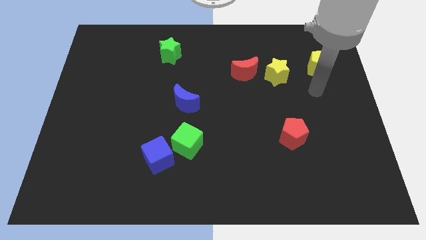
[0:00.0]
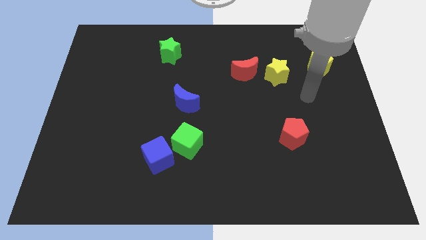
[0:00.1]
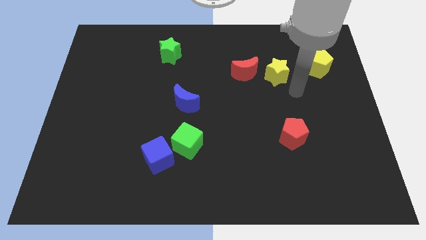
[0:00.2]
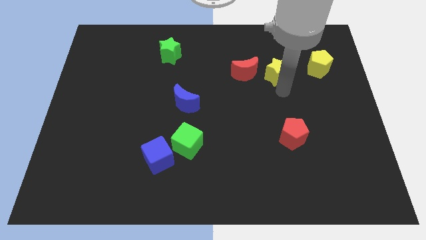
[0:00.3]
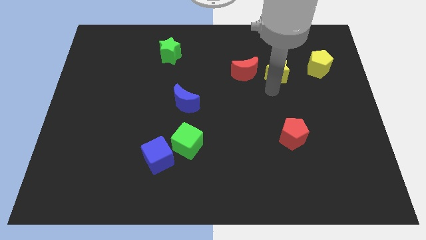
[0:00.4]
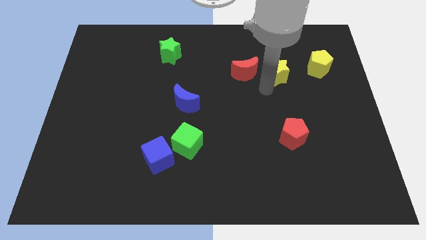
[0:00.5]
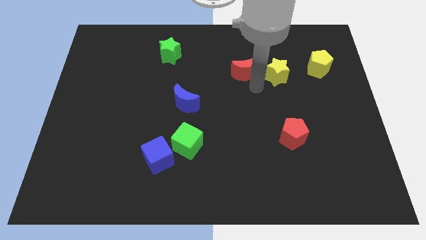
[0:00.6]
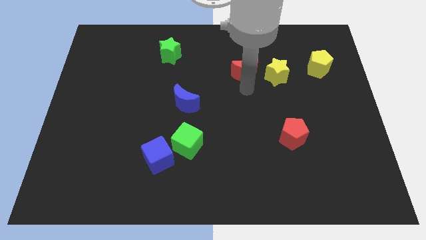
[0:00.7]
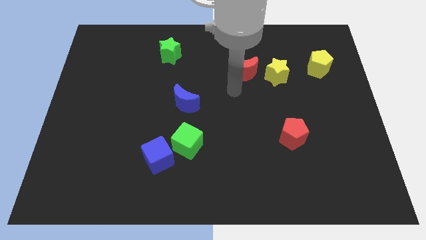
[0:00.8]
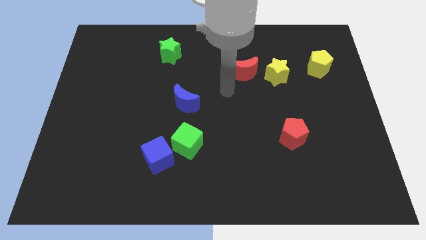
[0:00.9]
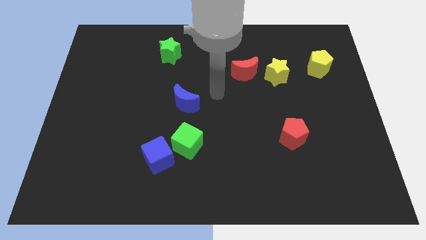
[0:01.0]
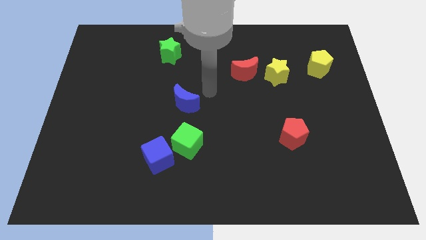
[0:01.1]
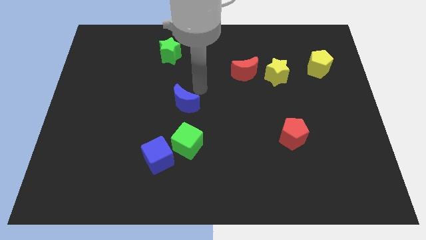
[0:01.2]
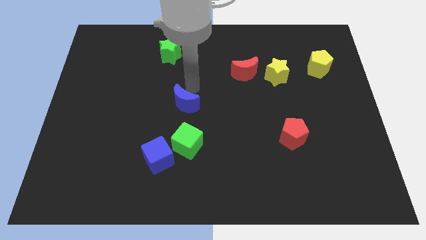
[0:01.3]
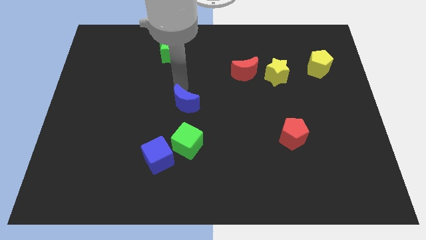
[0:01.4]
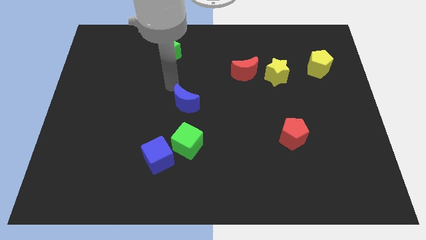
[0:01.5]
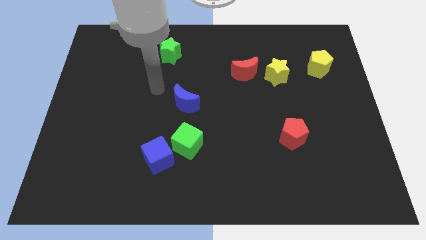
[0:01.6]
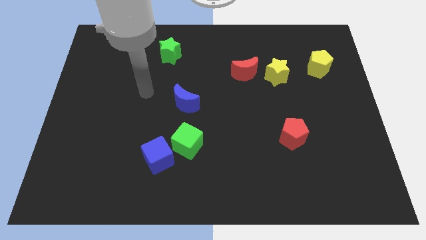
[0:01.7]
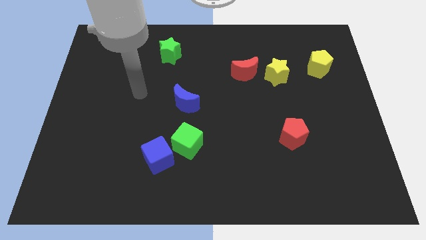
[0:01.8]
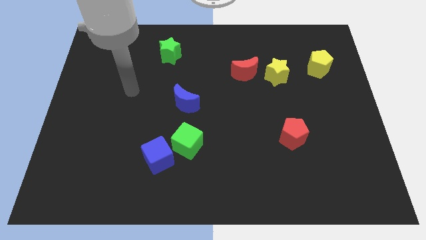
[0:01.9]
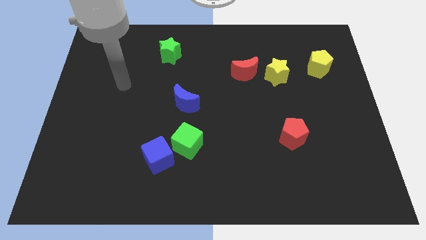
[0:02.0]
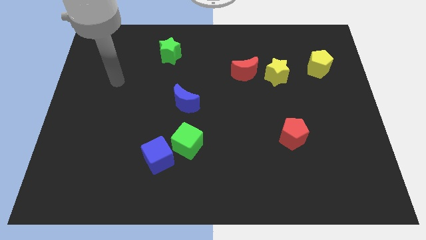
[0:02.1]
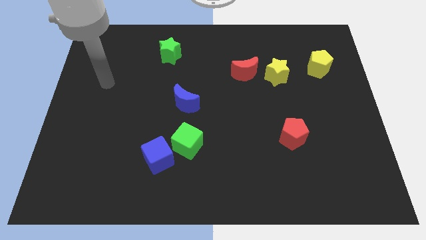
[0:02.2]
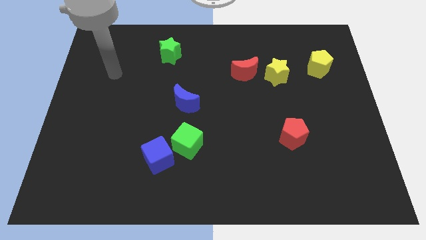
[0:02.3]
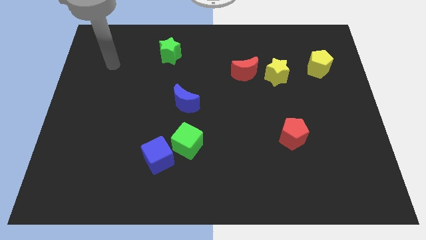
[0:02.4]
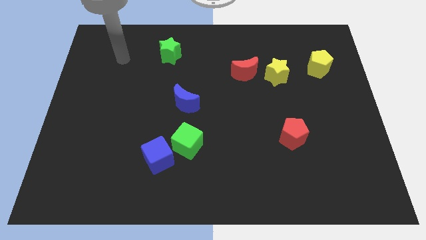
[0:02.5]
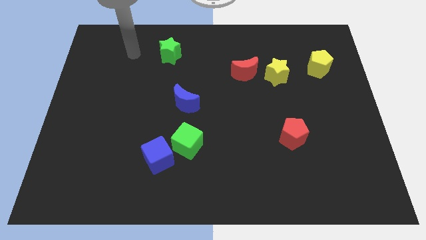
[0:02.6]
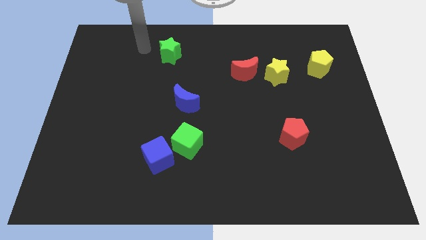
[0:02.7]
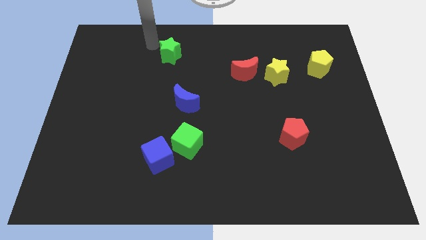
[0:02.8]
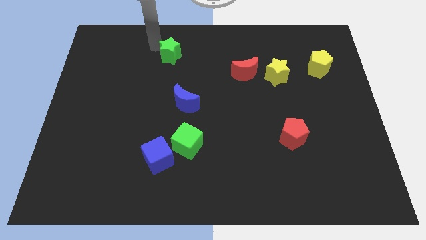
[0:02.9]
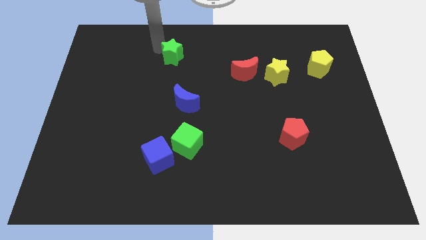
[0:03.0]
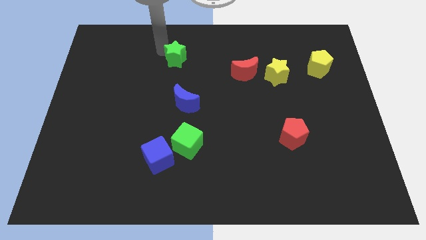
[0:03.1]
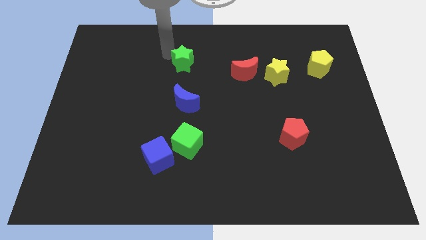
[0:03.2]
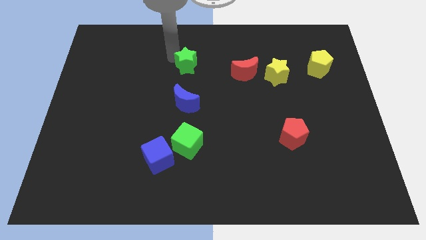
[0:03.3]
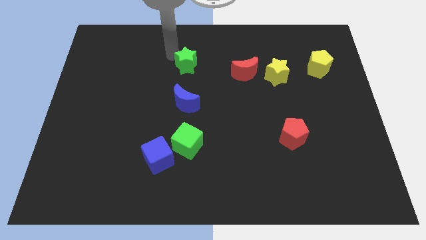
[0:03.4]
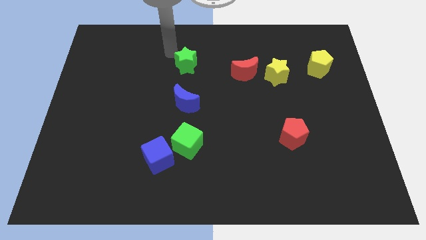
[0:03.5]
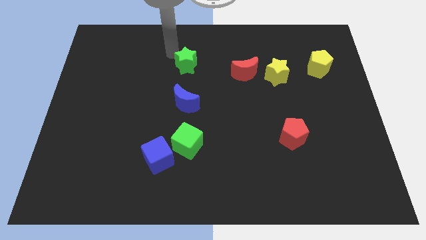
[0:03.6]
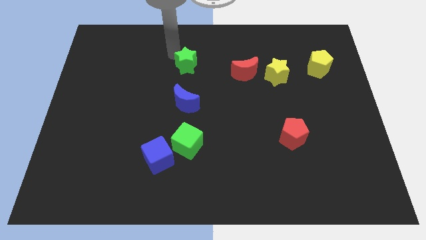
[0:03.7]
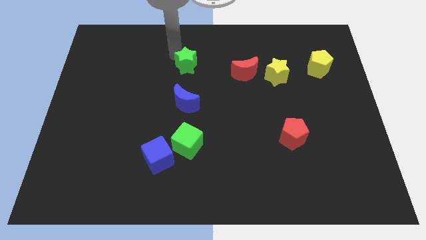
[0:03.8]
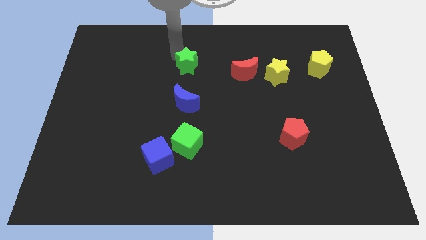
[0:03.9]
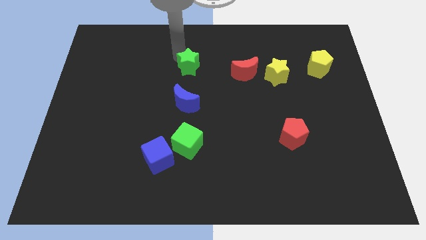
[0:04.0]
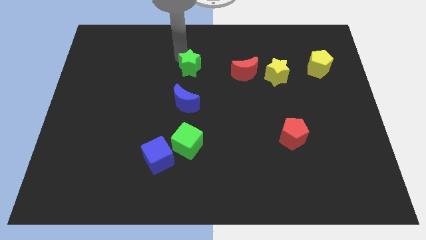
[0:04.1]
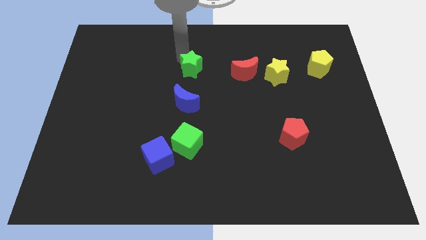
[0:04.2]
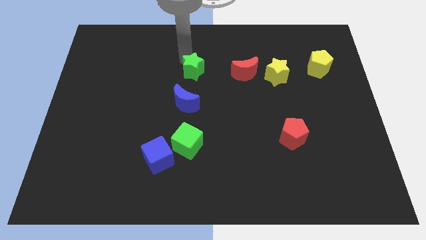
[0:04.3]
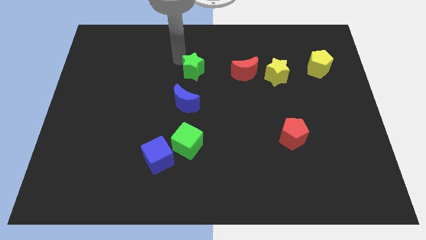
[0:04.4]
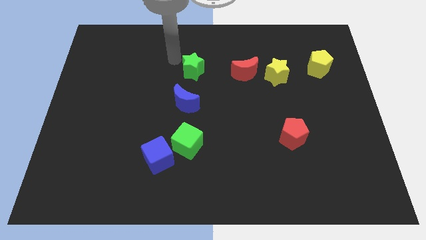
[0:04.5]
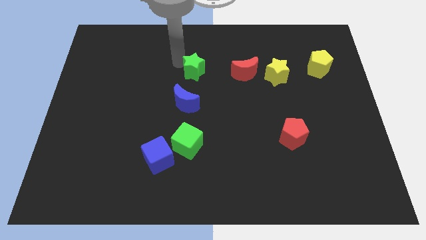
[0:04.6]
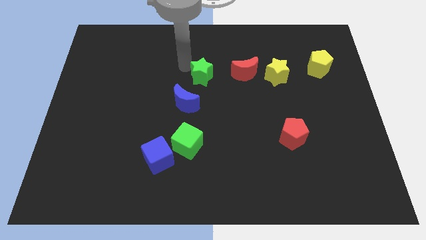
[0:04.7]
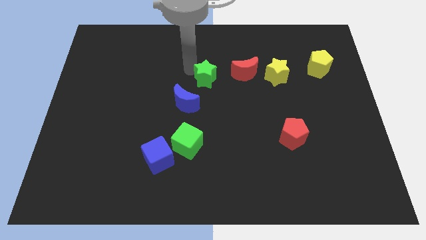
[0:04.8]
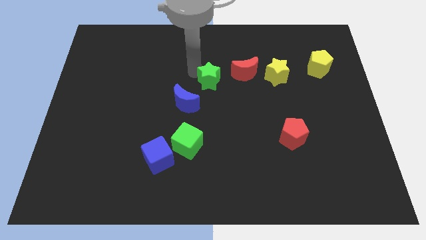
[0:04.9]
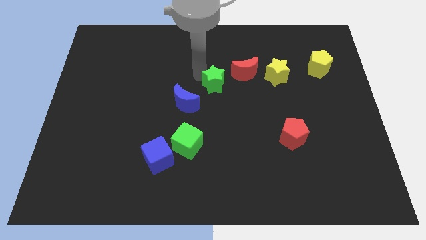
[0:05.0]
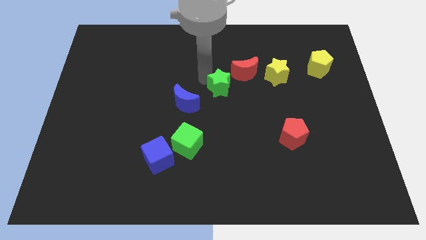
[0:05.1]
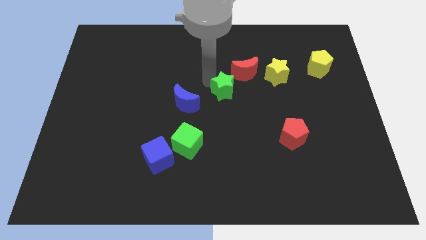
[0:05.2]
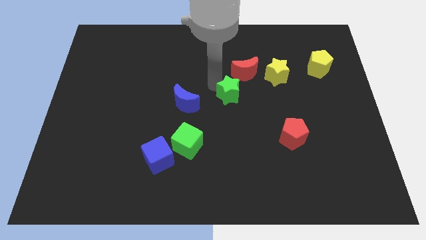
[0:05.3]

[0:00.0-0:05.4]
push the green star down and then right

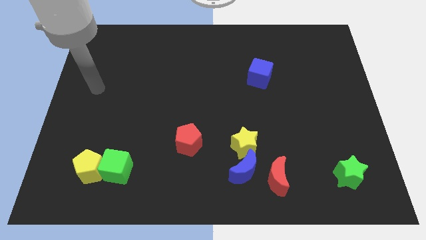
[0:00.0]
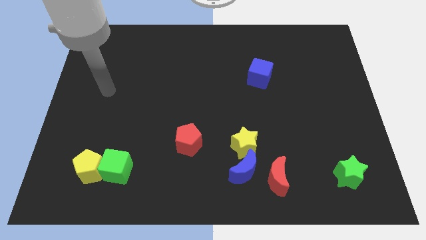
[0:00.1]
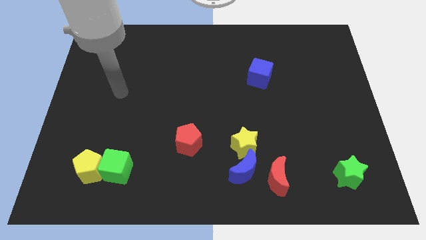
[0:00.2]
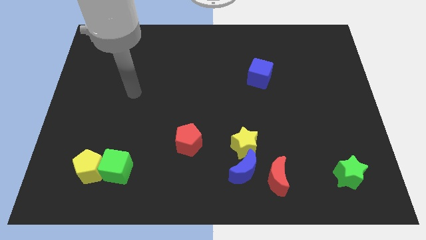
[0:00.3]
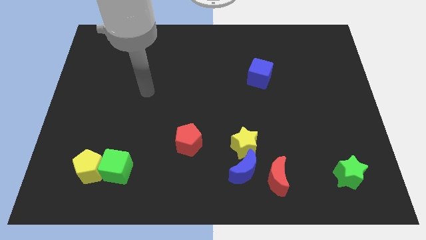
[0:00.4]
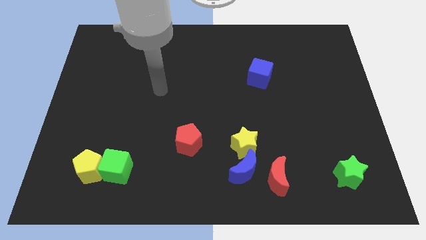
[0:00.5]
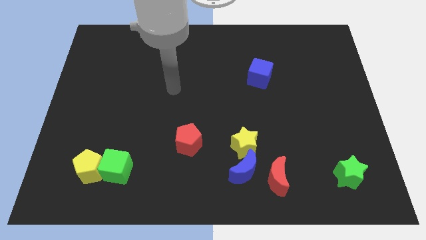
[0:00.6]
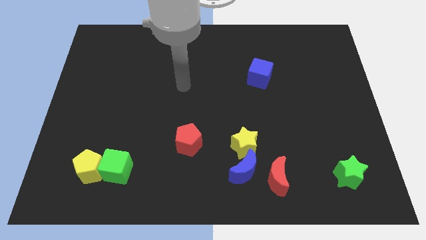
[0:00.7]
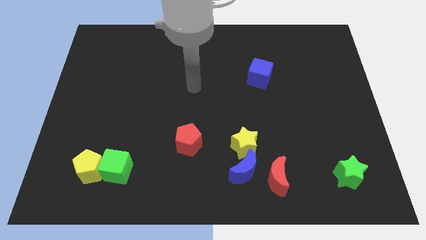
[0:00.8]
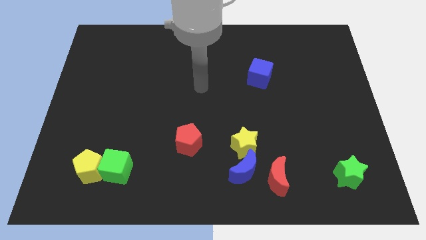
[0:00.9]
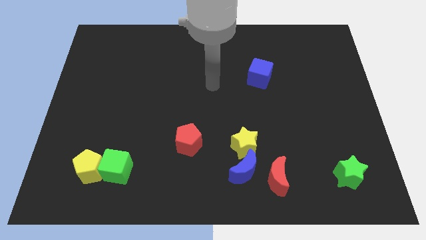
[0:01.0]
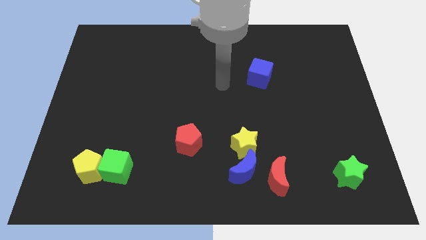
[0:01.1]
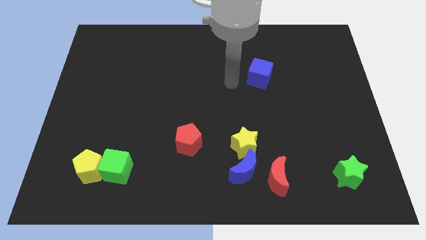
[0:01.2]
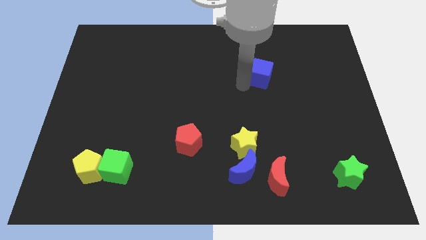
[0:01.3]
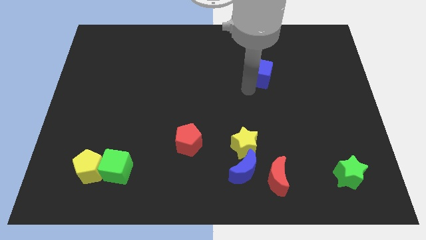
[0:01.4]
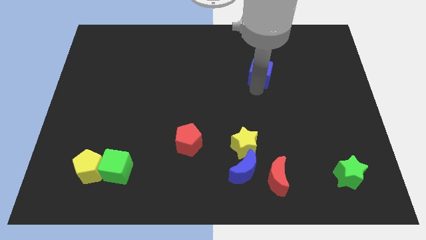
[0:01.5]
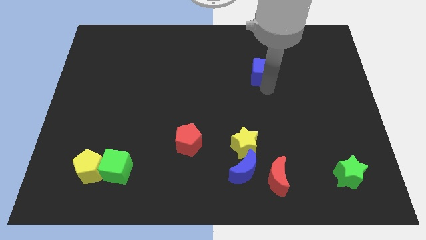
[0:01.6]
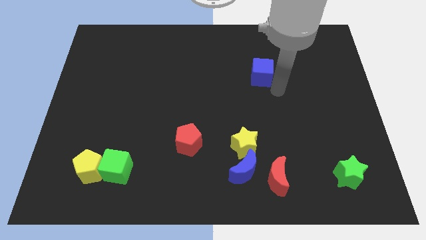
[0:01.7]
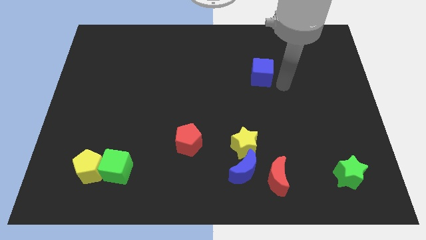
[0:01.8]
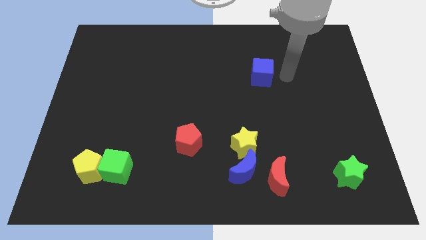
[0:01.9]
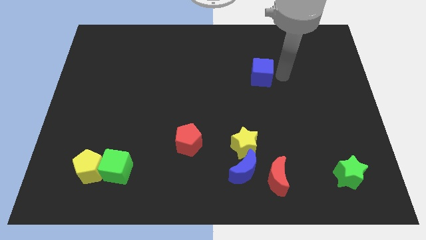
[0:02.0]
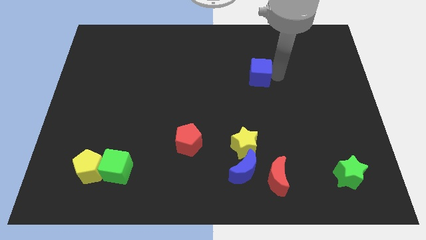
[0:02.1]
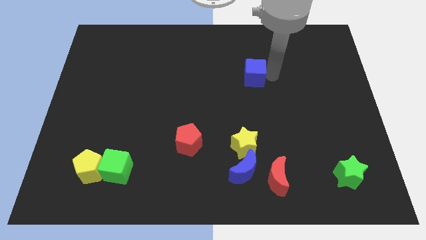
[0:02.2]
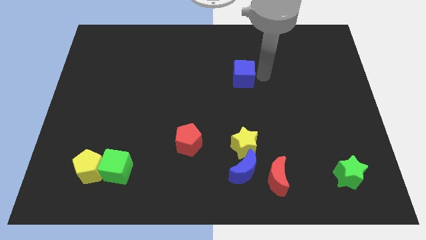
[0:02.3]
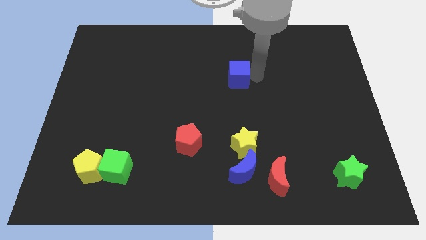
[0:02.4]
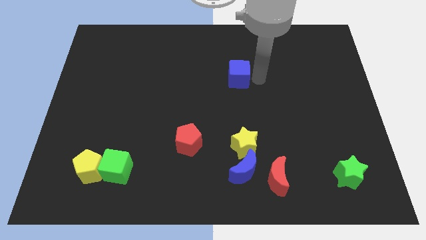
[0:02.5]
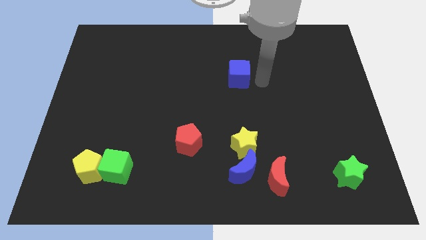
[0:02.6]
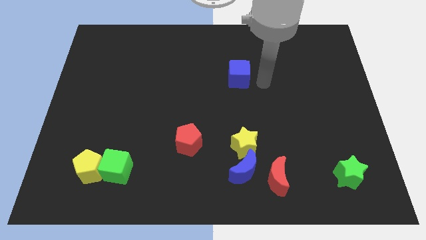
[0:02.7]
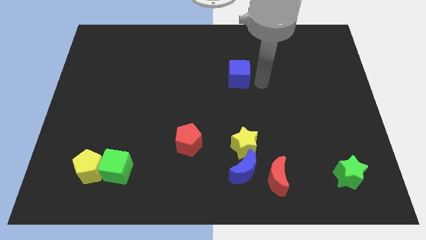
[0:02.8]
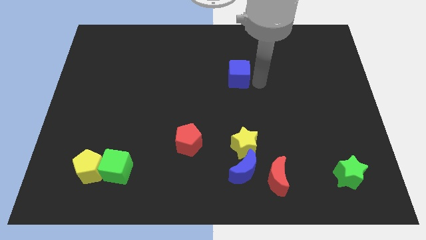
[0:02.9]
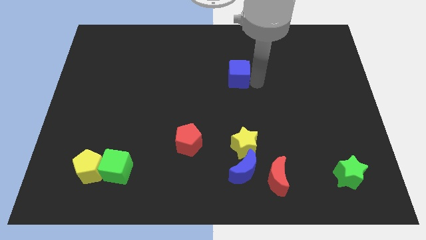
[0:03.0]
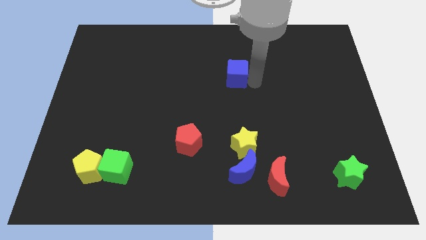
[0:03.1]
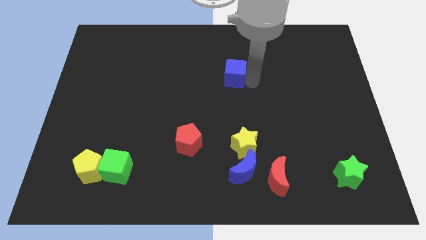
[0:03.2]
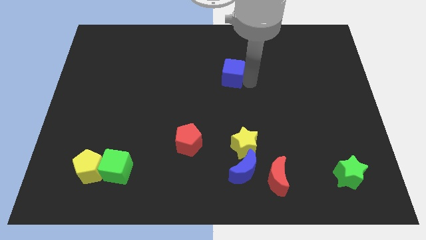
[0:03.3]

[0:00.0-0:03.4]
slightly move the blue cube left
